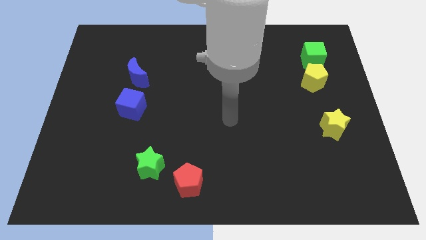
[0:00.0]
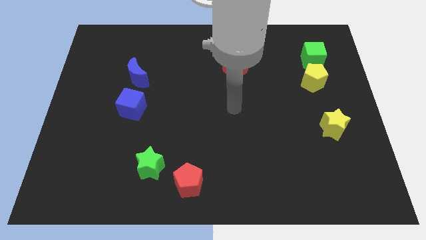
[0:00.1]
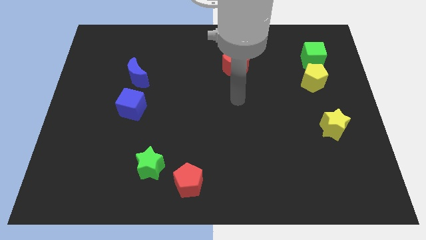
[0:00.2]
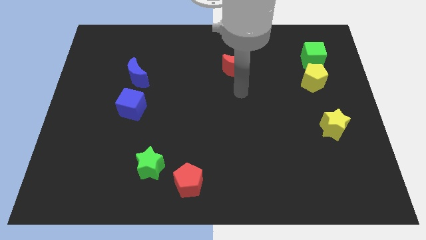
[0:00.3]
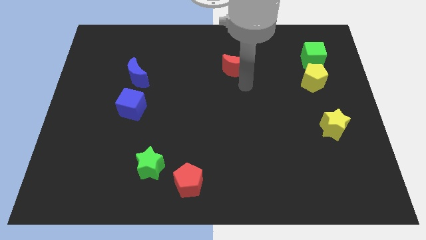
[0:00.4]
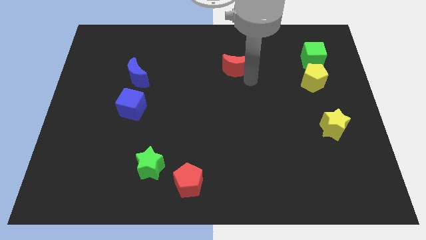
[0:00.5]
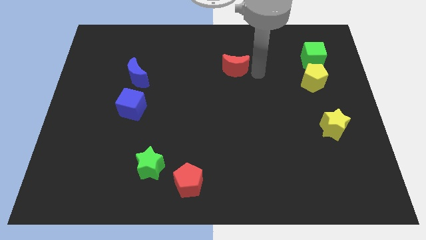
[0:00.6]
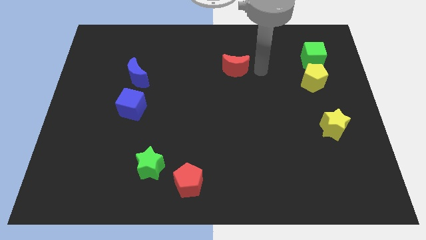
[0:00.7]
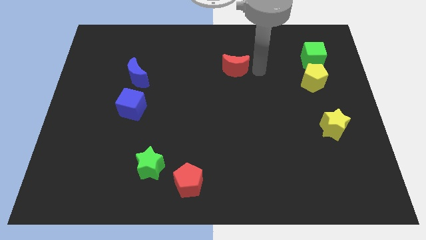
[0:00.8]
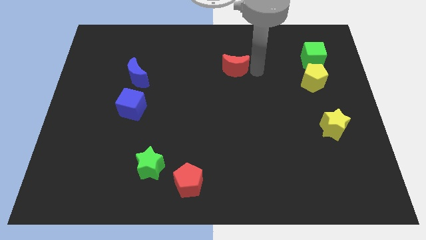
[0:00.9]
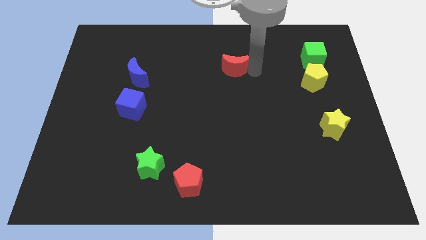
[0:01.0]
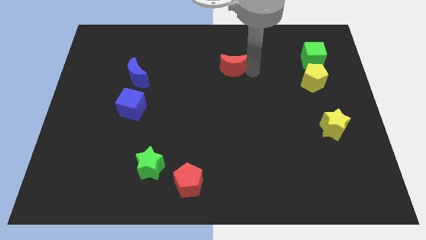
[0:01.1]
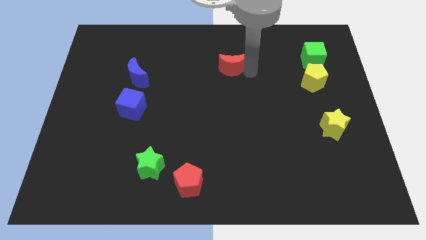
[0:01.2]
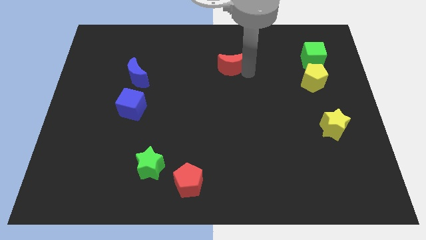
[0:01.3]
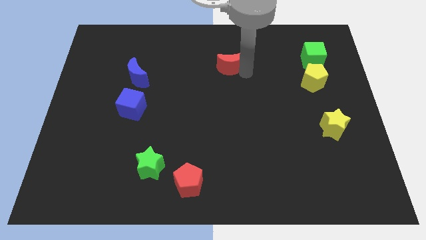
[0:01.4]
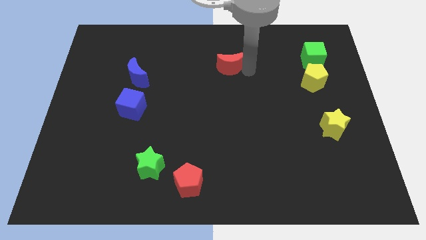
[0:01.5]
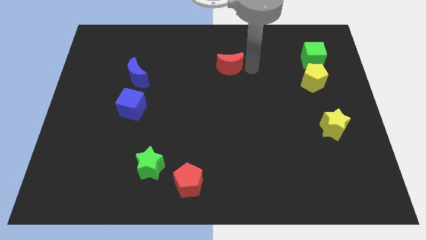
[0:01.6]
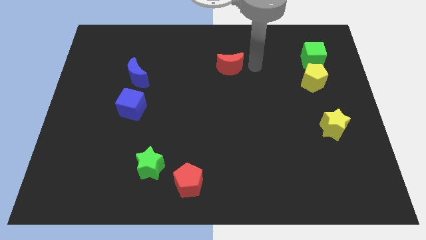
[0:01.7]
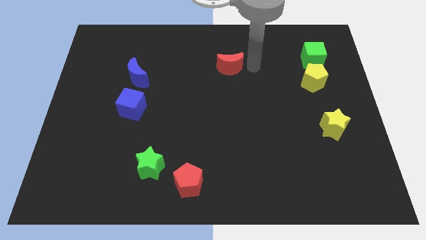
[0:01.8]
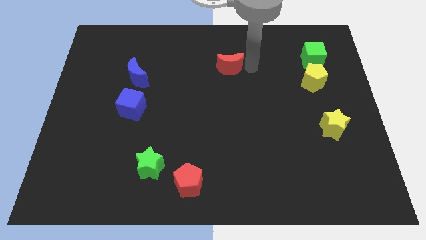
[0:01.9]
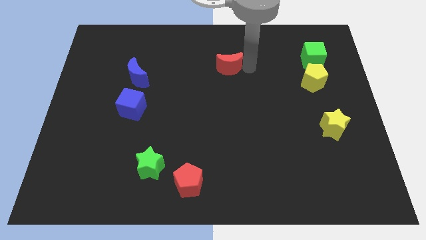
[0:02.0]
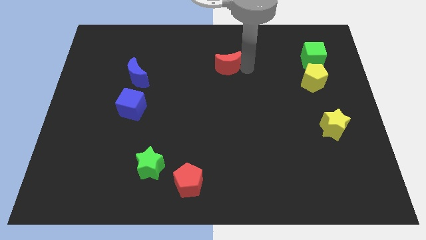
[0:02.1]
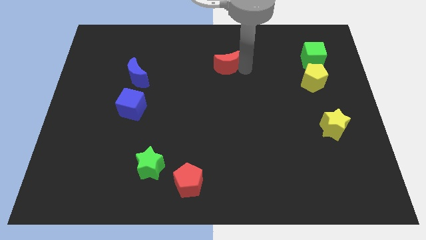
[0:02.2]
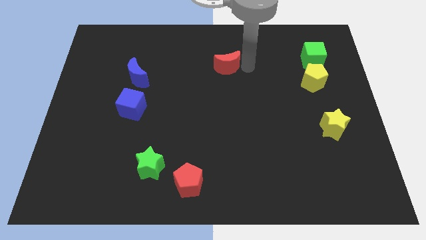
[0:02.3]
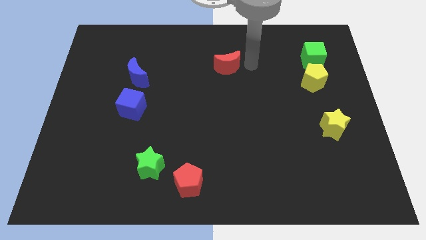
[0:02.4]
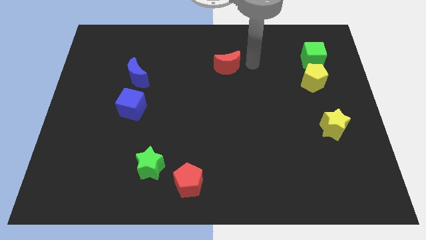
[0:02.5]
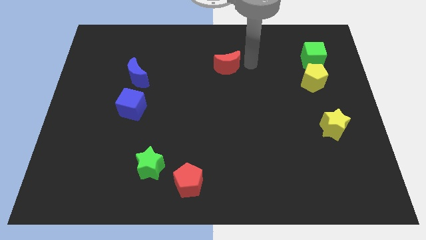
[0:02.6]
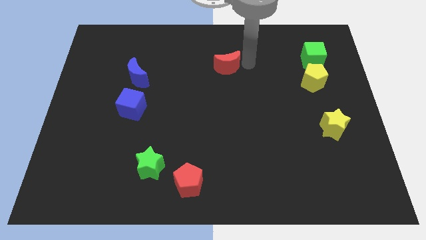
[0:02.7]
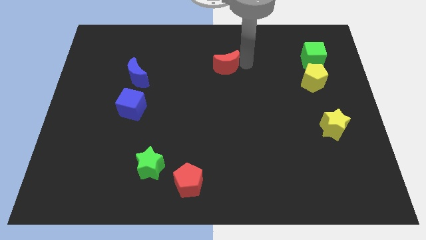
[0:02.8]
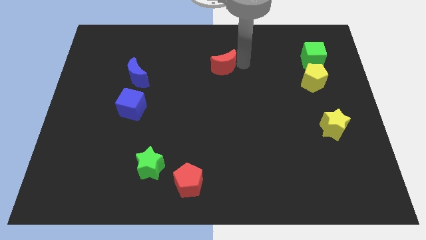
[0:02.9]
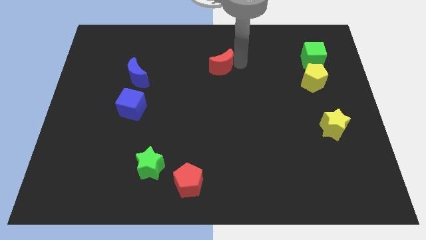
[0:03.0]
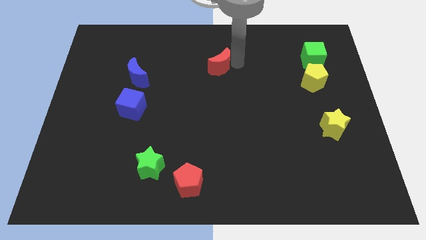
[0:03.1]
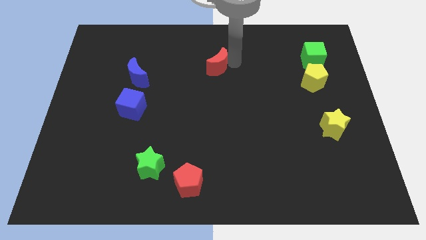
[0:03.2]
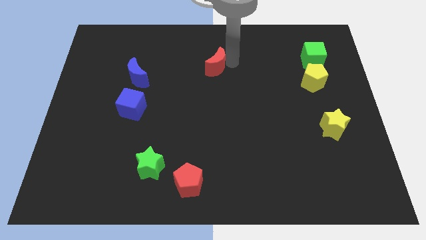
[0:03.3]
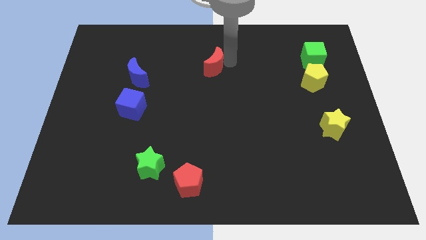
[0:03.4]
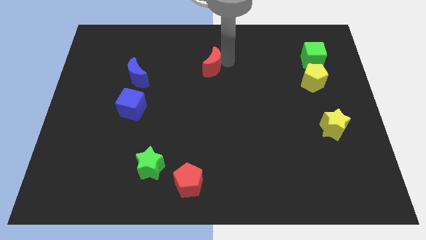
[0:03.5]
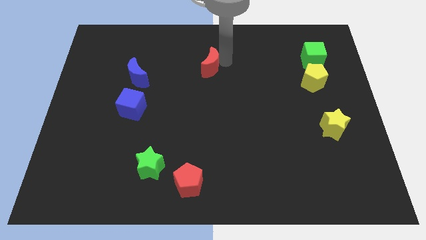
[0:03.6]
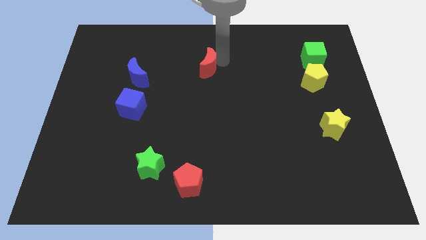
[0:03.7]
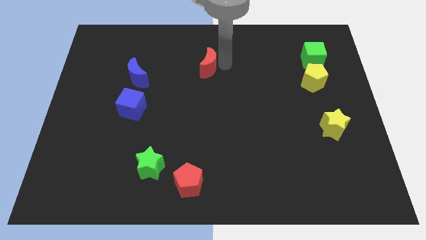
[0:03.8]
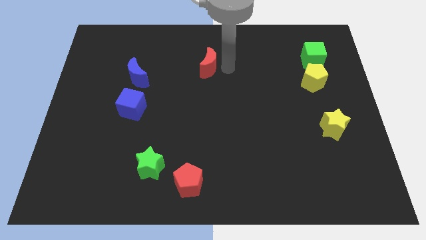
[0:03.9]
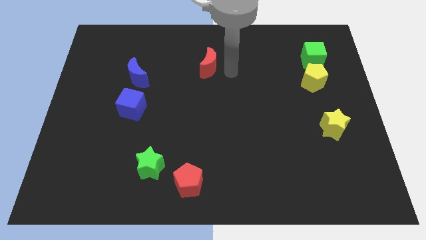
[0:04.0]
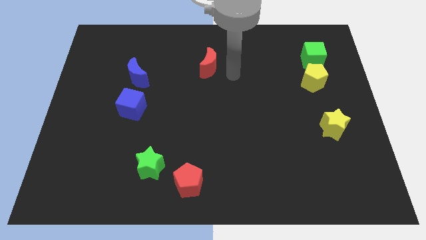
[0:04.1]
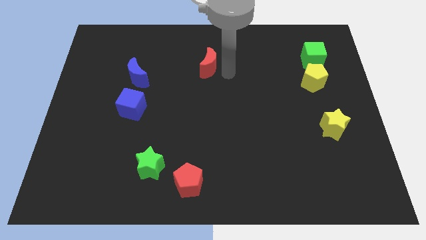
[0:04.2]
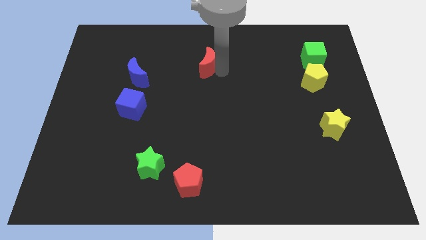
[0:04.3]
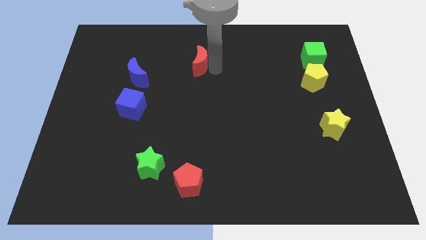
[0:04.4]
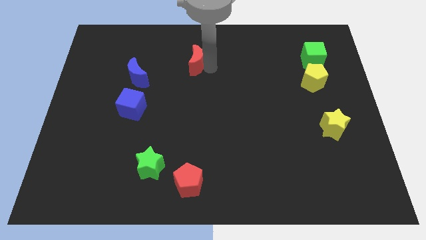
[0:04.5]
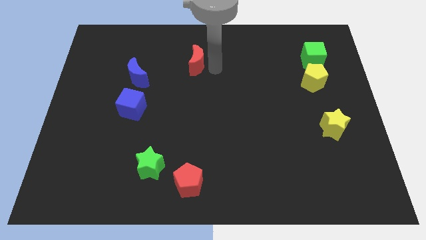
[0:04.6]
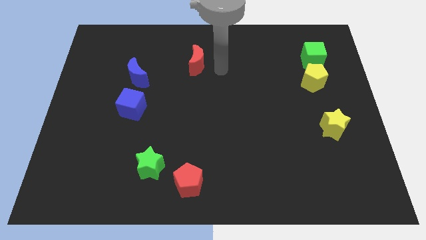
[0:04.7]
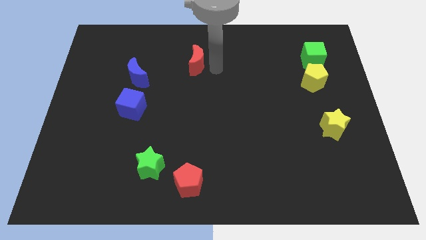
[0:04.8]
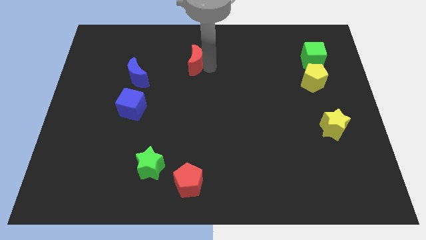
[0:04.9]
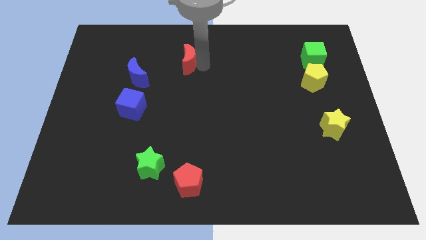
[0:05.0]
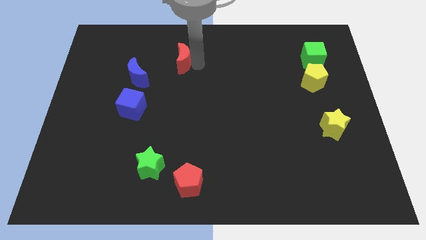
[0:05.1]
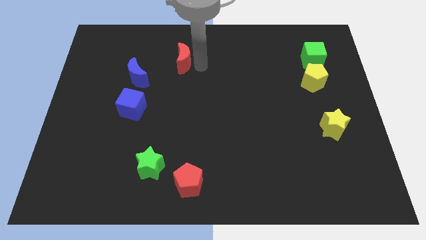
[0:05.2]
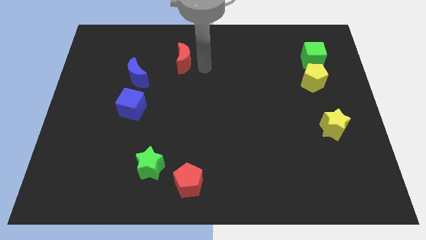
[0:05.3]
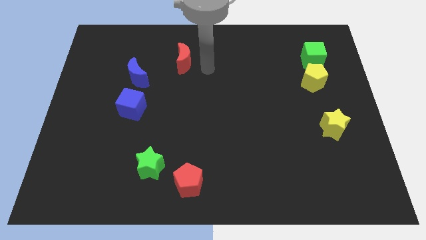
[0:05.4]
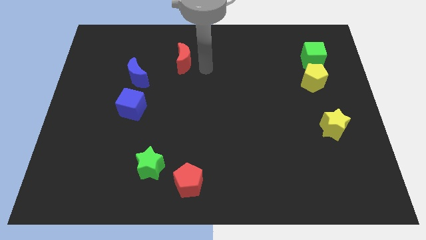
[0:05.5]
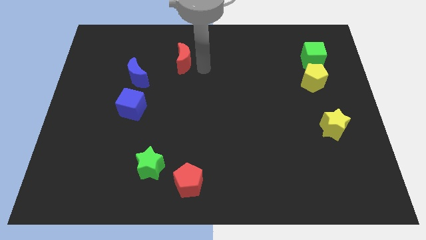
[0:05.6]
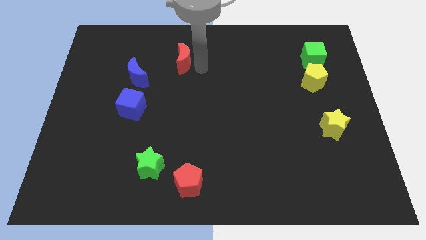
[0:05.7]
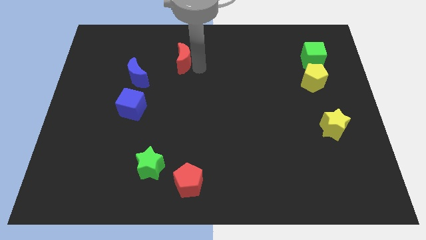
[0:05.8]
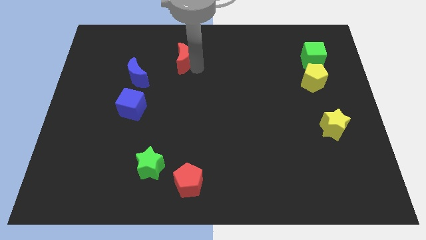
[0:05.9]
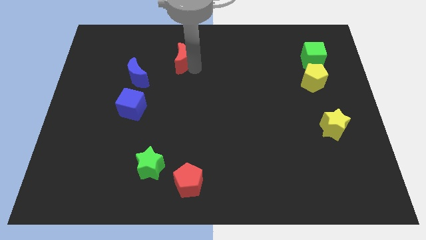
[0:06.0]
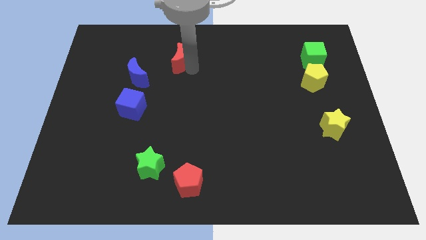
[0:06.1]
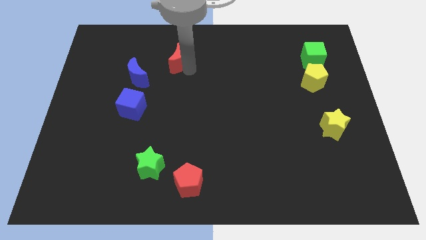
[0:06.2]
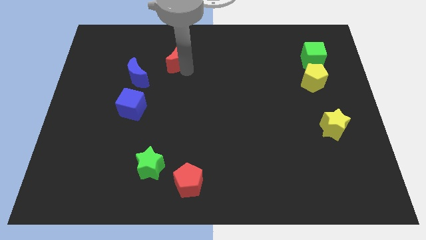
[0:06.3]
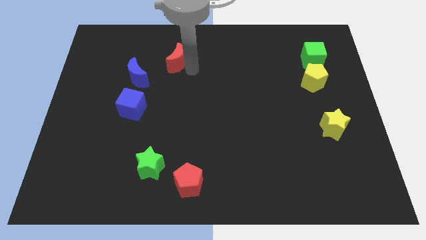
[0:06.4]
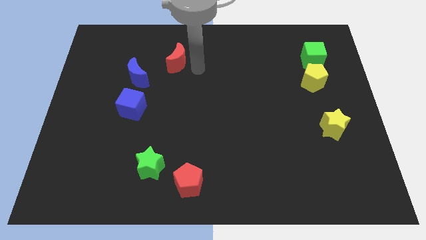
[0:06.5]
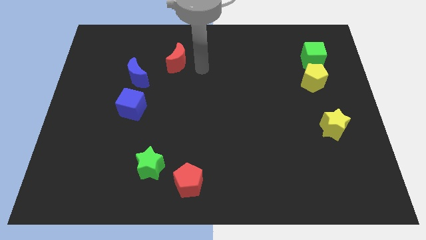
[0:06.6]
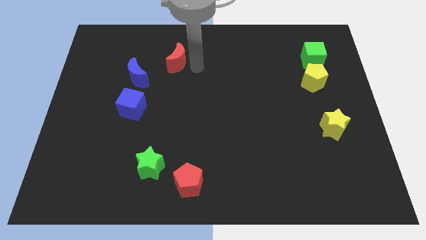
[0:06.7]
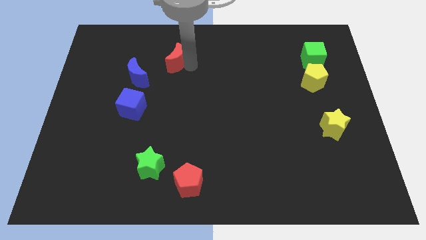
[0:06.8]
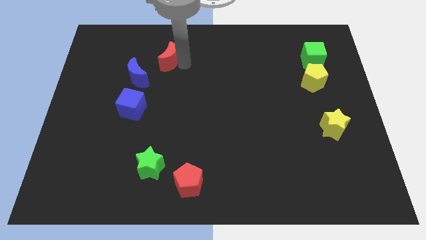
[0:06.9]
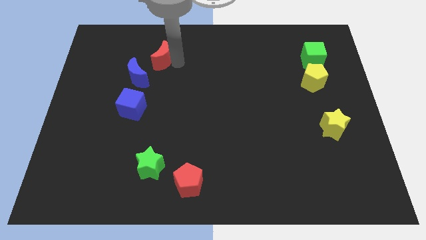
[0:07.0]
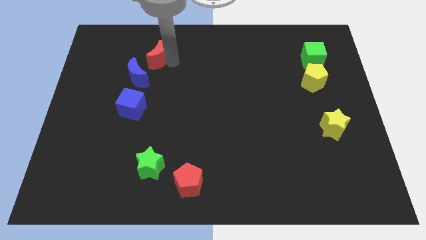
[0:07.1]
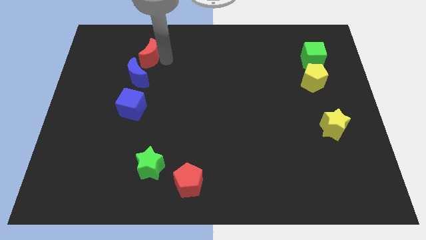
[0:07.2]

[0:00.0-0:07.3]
push the red moon to the left

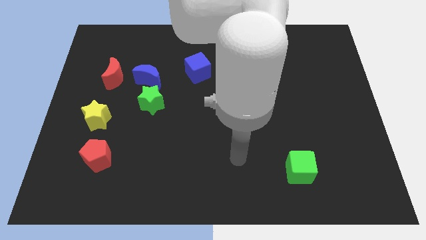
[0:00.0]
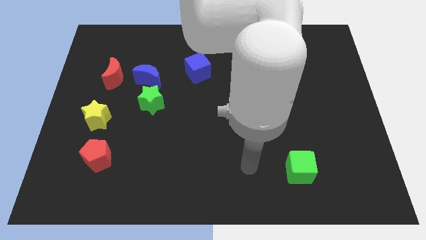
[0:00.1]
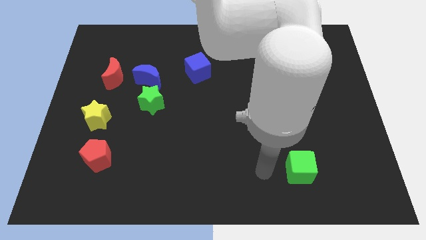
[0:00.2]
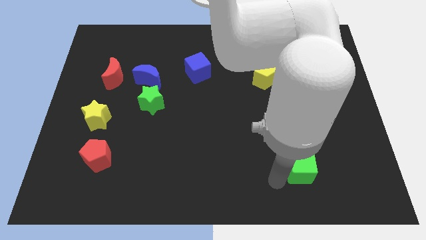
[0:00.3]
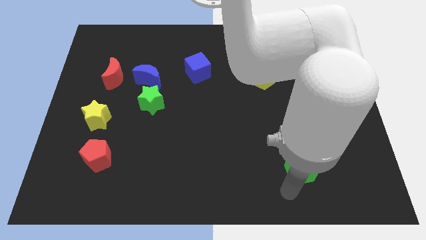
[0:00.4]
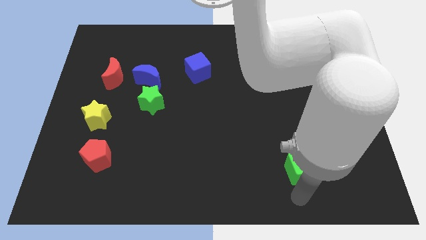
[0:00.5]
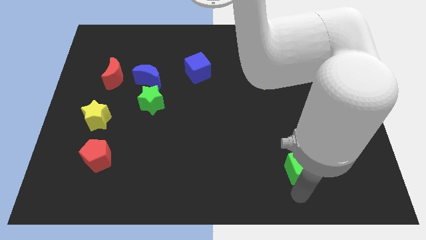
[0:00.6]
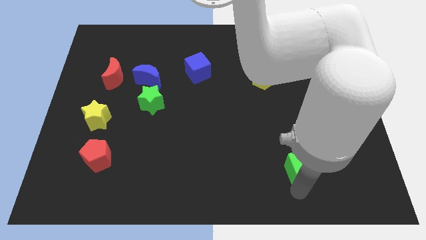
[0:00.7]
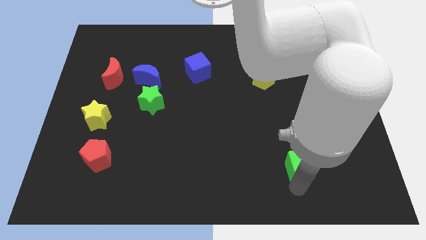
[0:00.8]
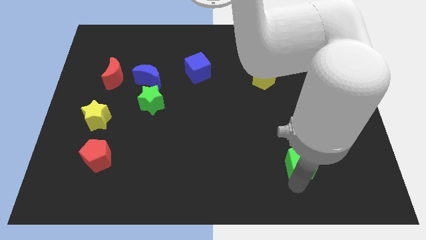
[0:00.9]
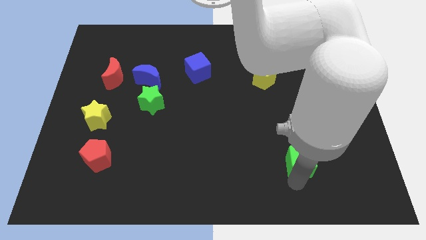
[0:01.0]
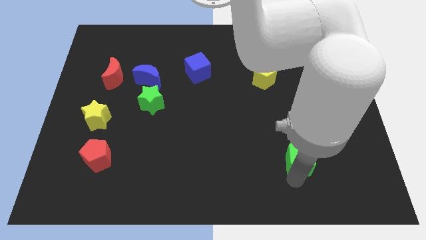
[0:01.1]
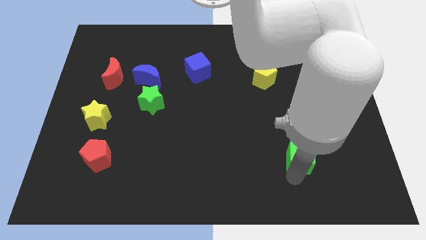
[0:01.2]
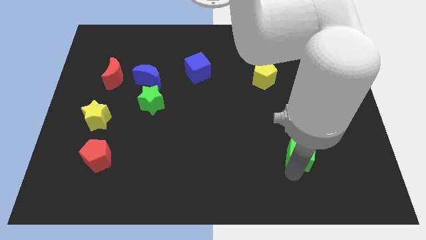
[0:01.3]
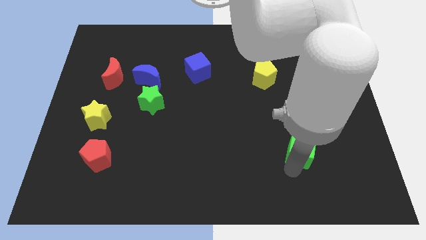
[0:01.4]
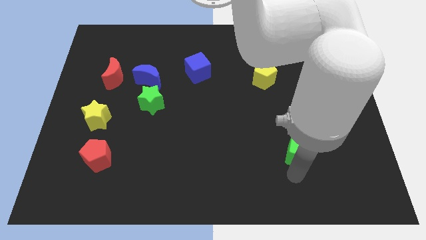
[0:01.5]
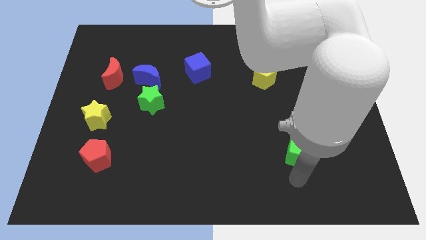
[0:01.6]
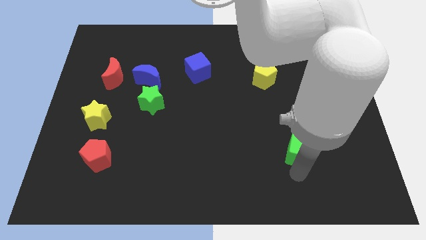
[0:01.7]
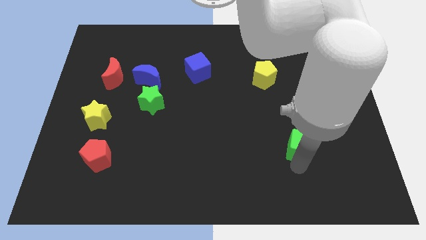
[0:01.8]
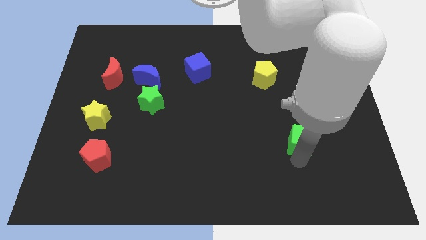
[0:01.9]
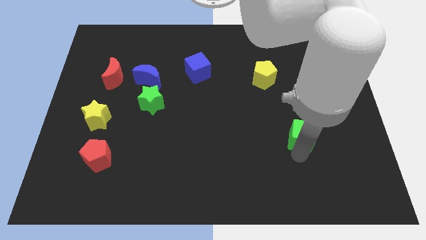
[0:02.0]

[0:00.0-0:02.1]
move the green cube upwards a little bit
